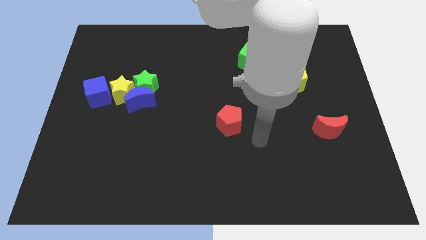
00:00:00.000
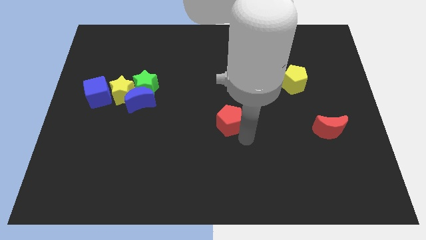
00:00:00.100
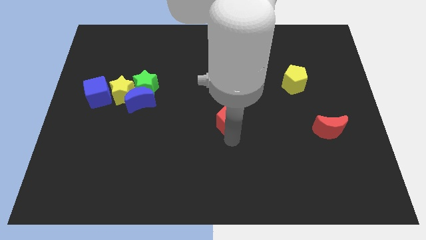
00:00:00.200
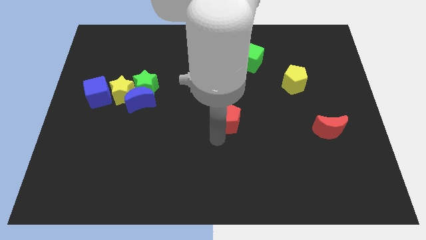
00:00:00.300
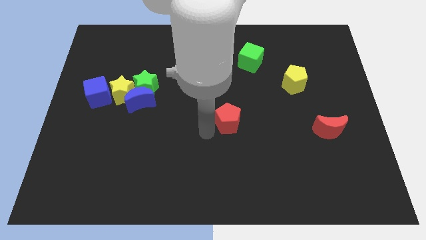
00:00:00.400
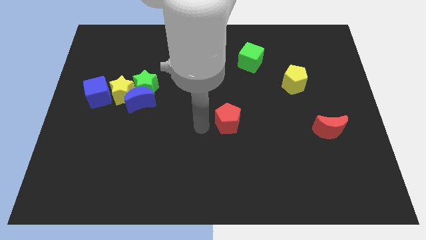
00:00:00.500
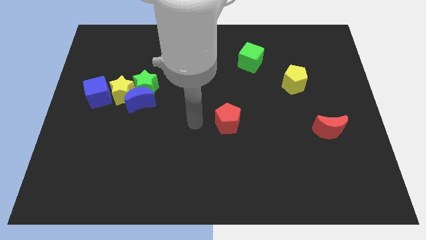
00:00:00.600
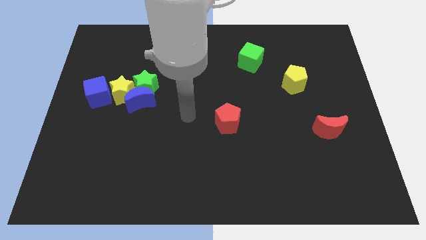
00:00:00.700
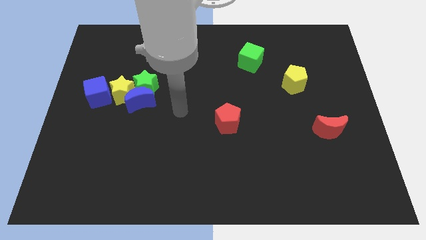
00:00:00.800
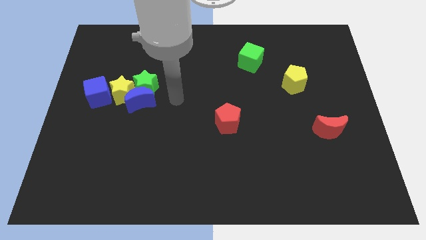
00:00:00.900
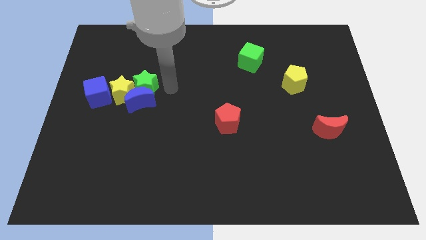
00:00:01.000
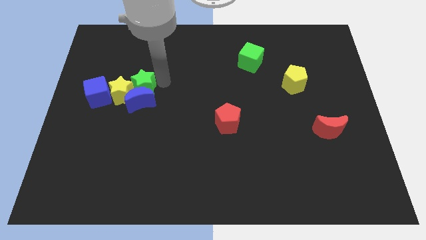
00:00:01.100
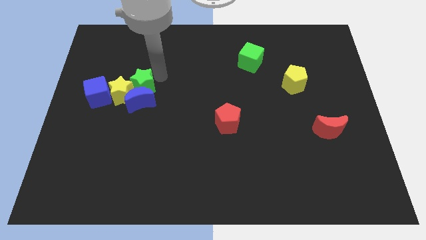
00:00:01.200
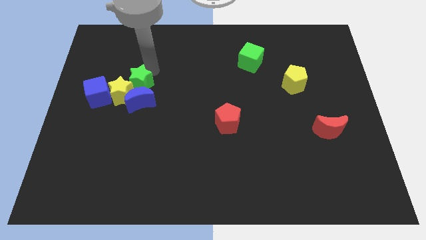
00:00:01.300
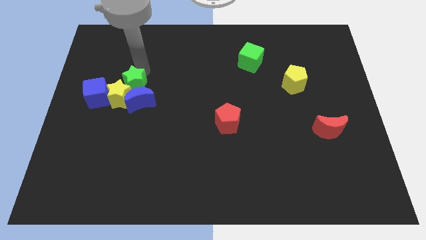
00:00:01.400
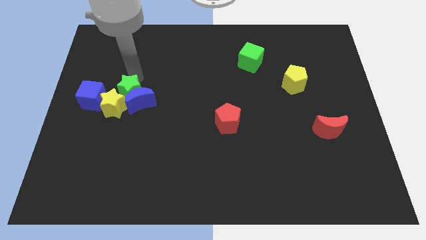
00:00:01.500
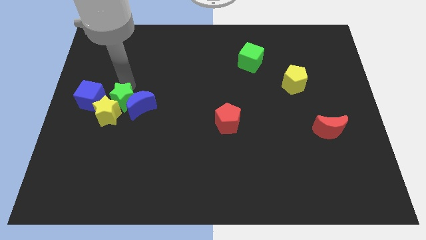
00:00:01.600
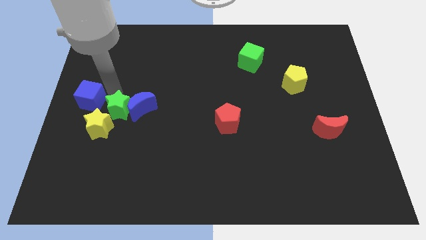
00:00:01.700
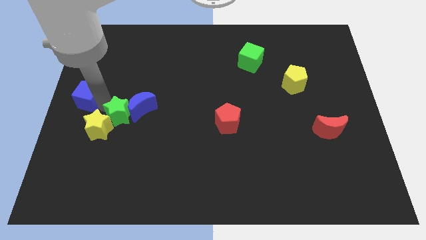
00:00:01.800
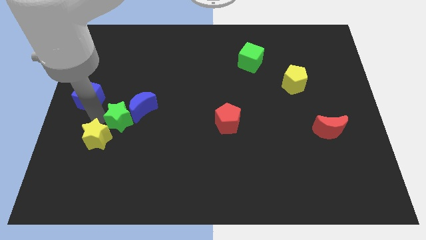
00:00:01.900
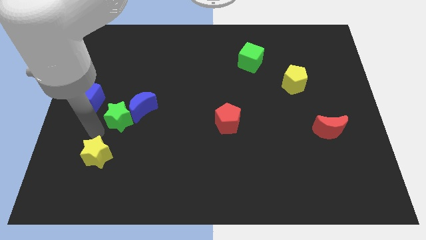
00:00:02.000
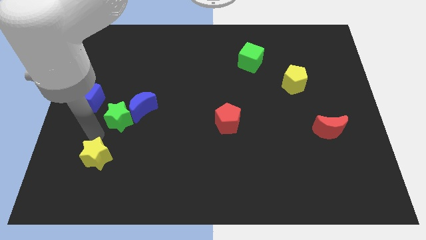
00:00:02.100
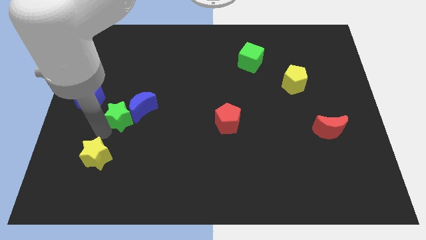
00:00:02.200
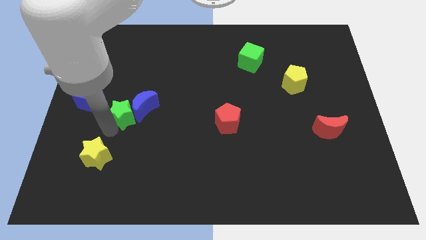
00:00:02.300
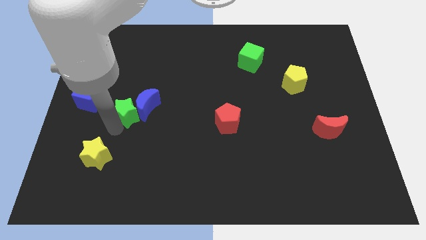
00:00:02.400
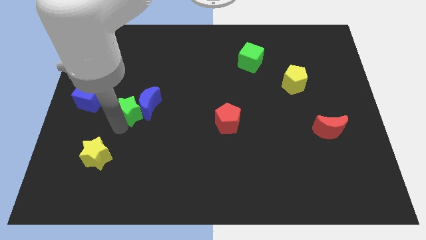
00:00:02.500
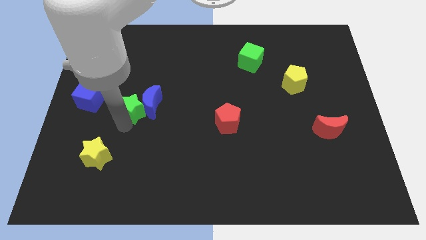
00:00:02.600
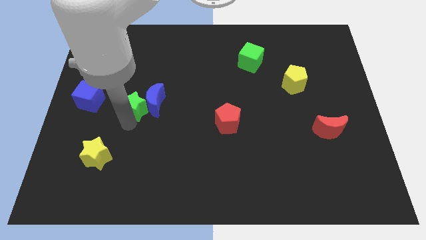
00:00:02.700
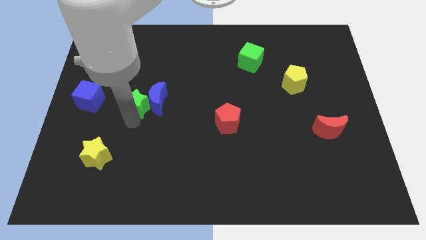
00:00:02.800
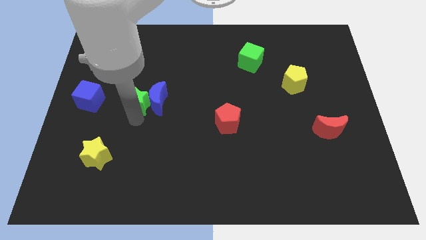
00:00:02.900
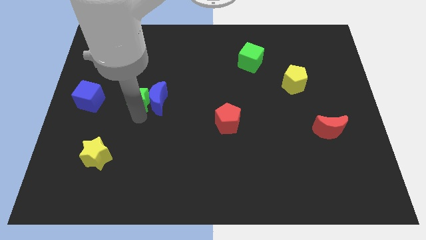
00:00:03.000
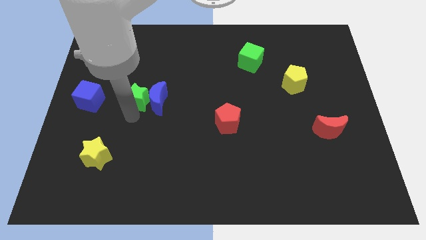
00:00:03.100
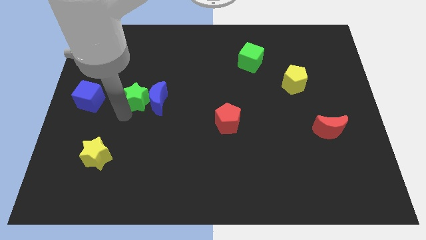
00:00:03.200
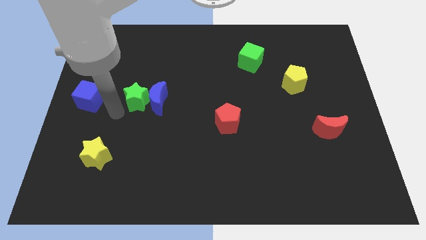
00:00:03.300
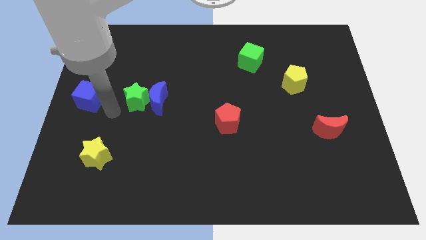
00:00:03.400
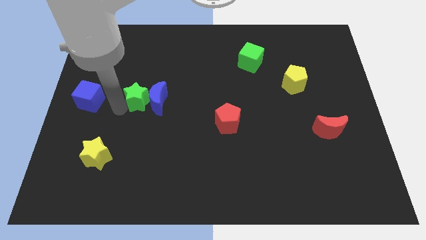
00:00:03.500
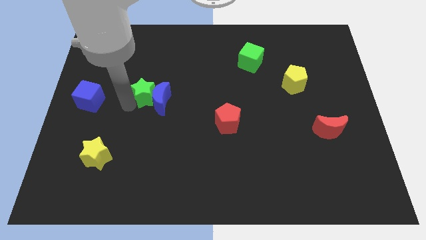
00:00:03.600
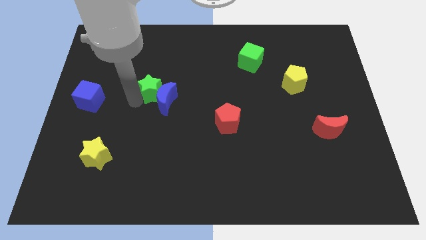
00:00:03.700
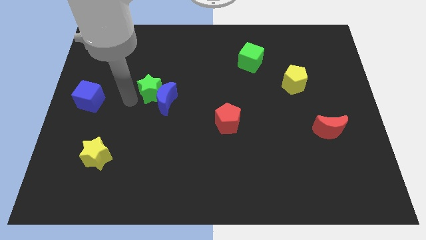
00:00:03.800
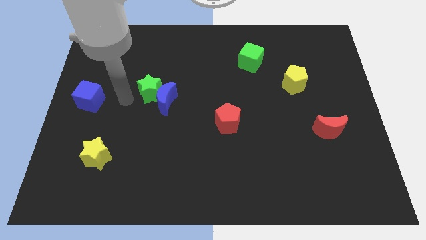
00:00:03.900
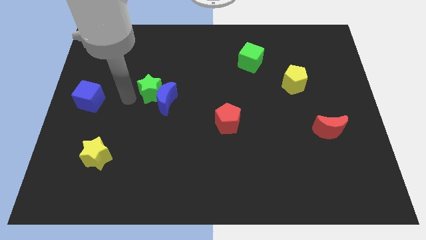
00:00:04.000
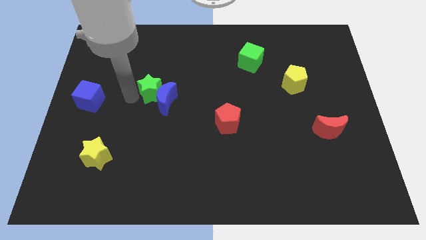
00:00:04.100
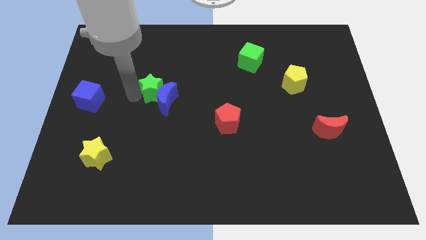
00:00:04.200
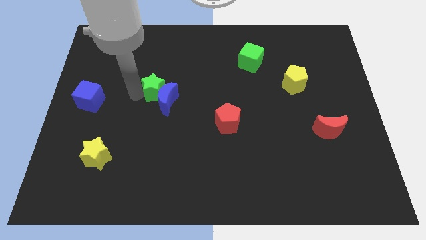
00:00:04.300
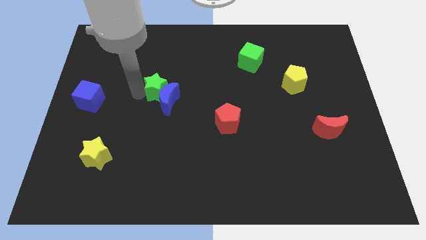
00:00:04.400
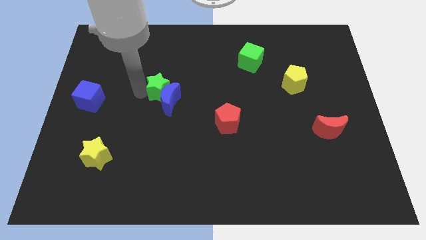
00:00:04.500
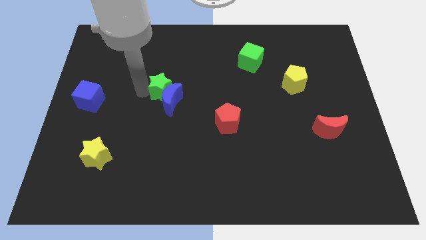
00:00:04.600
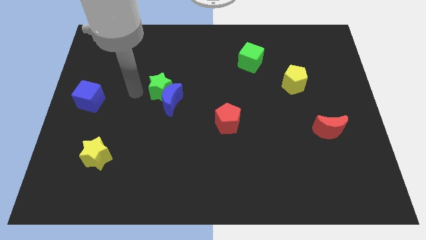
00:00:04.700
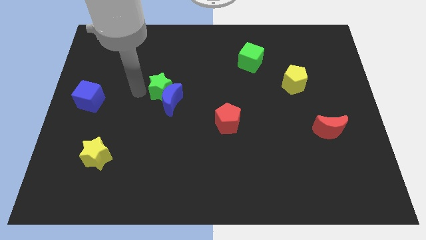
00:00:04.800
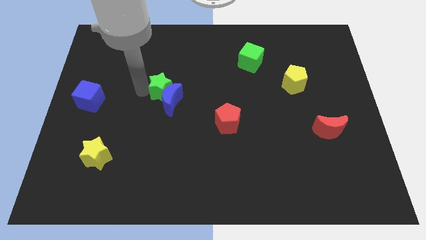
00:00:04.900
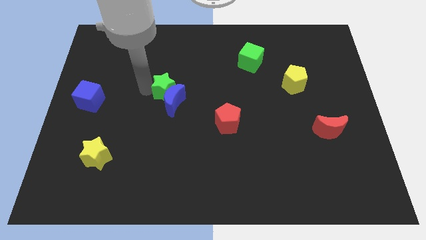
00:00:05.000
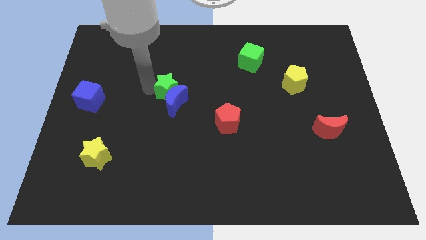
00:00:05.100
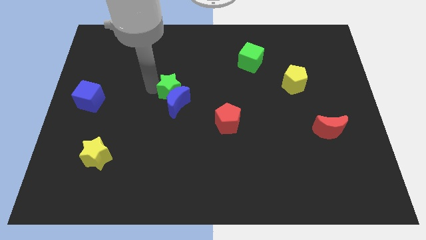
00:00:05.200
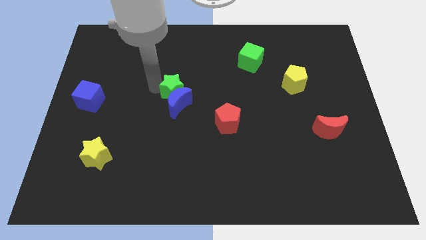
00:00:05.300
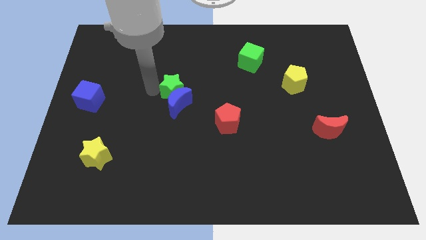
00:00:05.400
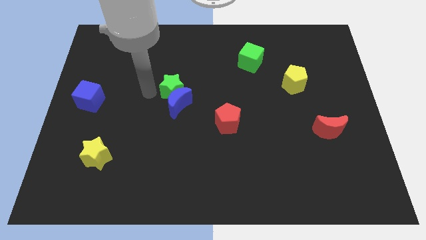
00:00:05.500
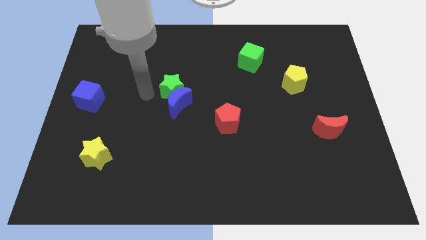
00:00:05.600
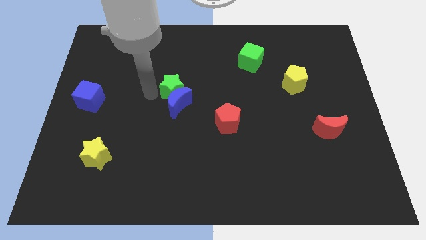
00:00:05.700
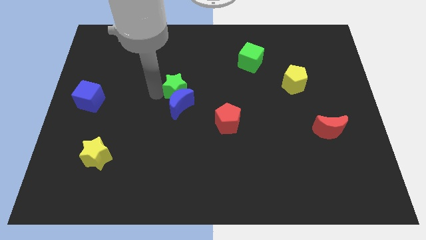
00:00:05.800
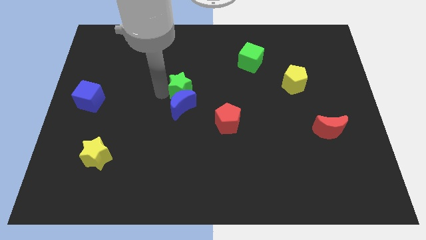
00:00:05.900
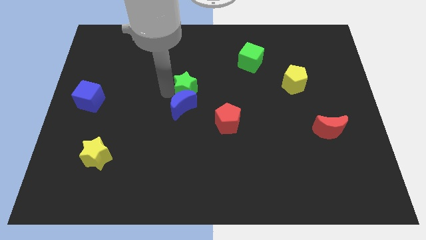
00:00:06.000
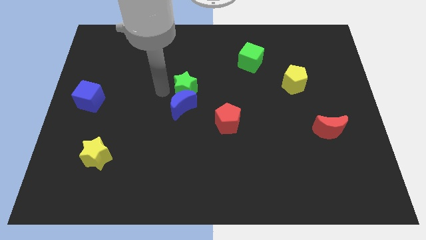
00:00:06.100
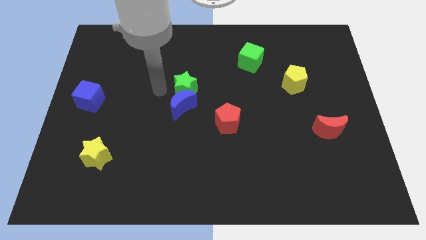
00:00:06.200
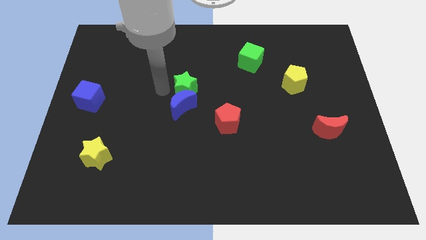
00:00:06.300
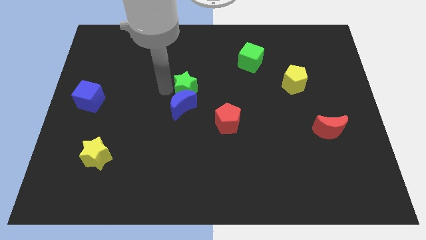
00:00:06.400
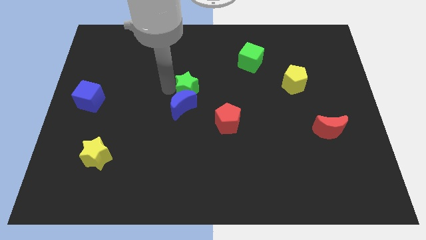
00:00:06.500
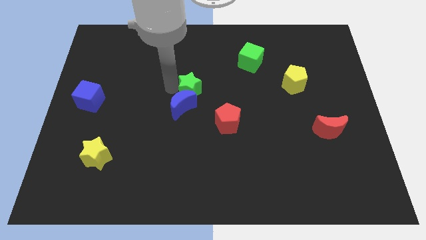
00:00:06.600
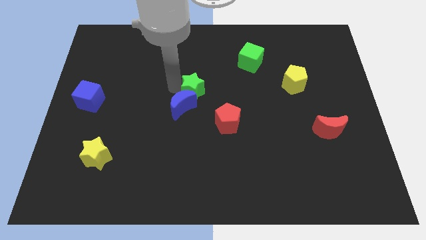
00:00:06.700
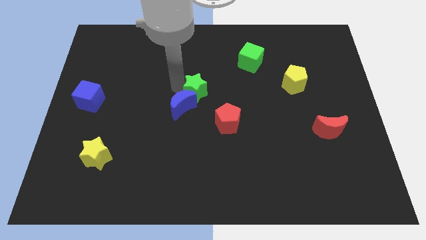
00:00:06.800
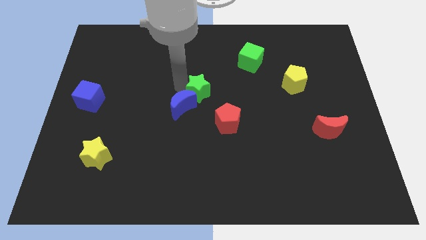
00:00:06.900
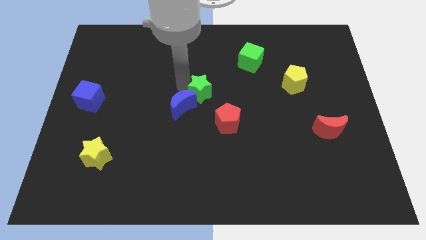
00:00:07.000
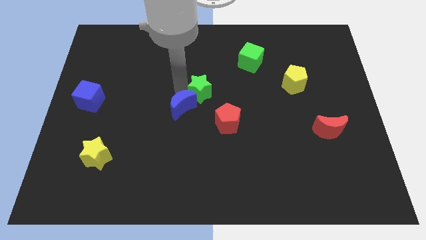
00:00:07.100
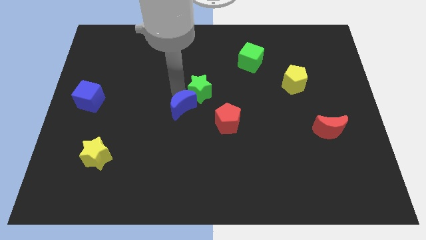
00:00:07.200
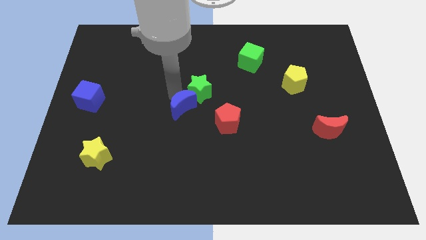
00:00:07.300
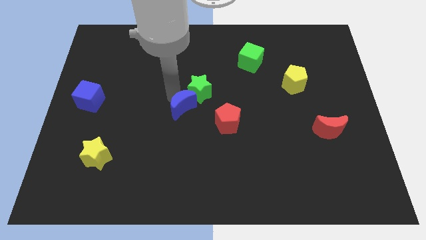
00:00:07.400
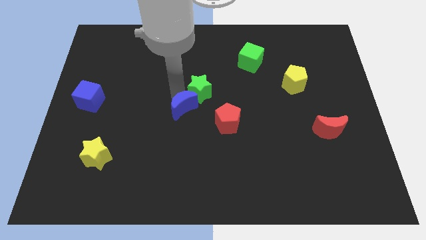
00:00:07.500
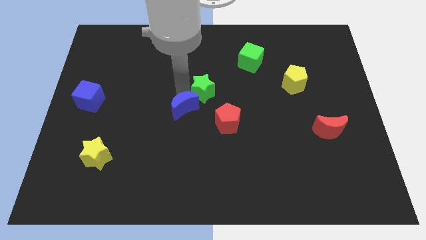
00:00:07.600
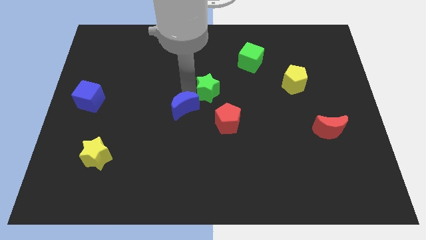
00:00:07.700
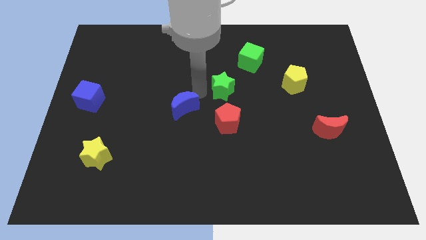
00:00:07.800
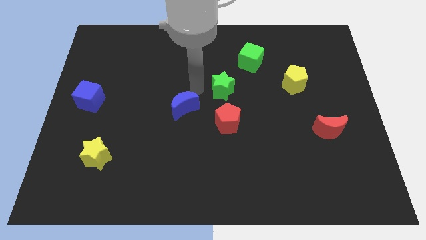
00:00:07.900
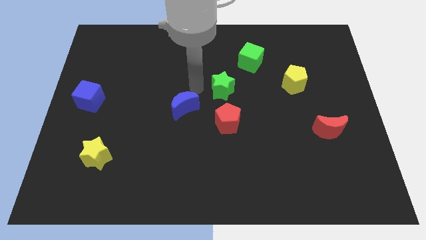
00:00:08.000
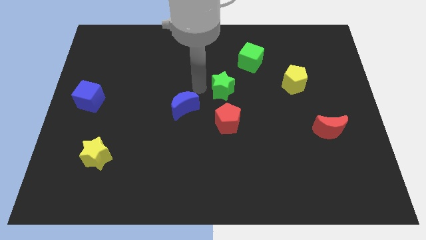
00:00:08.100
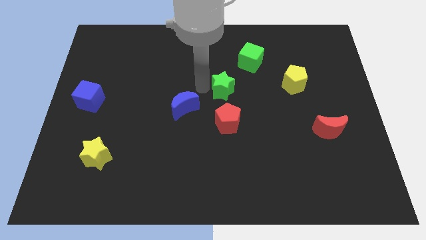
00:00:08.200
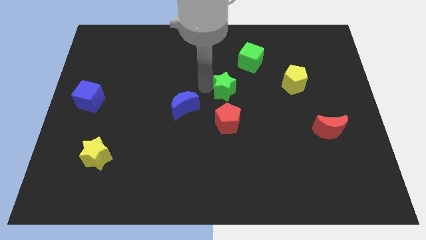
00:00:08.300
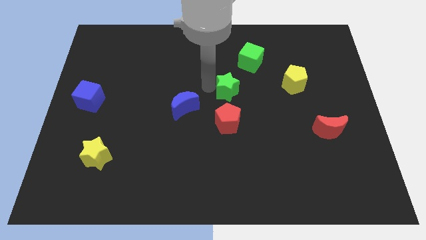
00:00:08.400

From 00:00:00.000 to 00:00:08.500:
push the green star to the right
